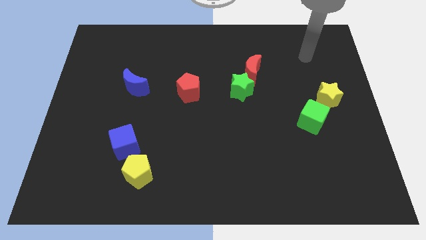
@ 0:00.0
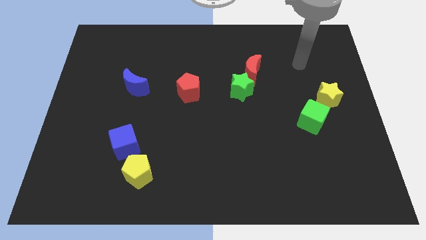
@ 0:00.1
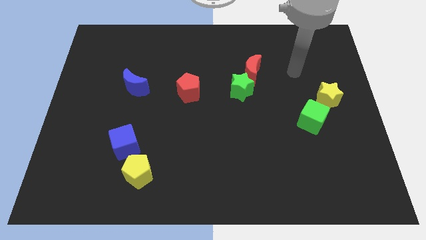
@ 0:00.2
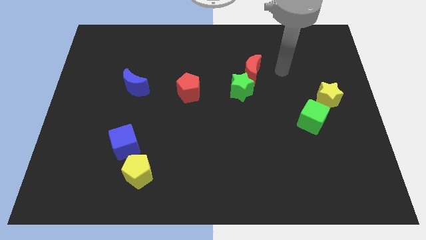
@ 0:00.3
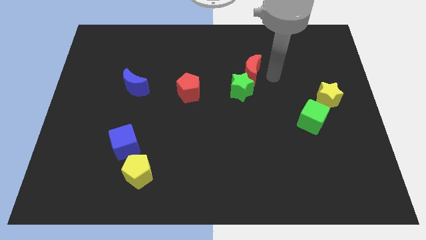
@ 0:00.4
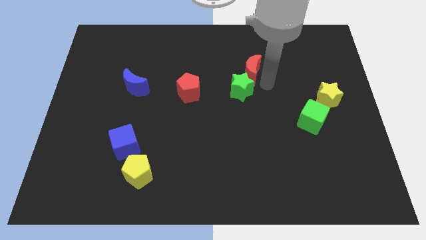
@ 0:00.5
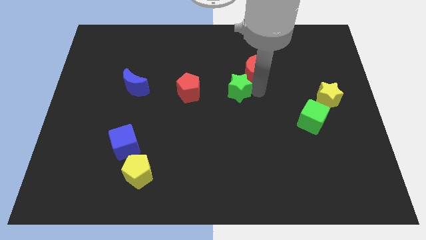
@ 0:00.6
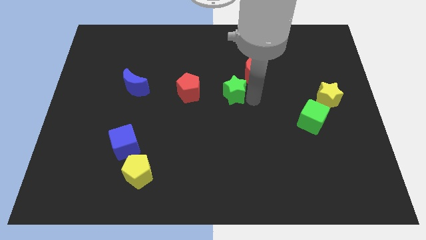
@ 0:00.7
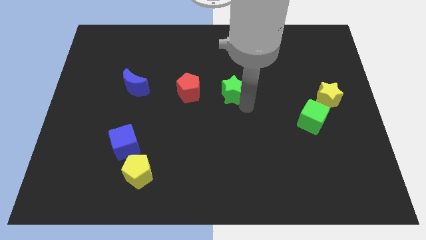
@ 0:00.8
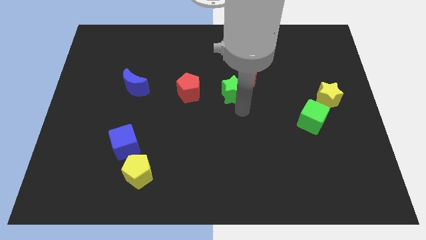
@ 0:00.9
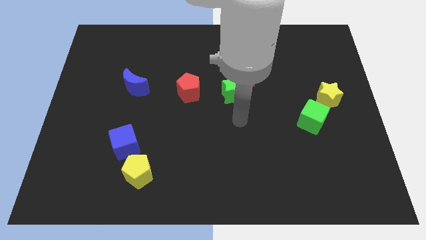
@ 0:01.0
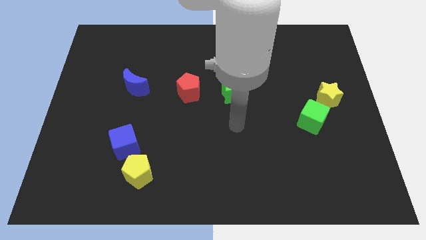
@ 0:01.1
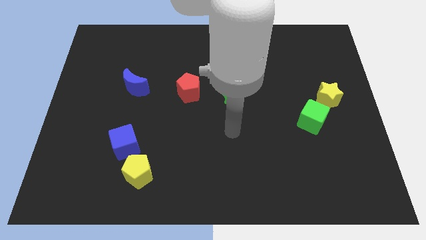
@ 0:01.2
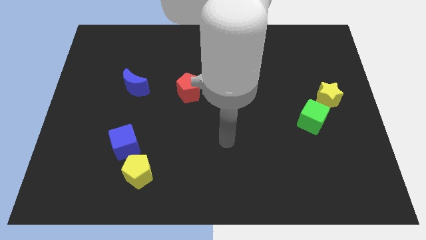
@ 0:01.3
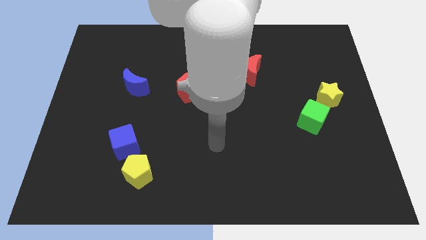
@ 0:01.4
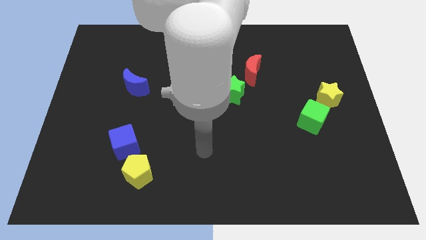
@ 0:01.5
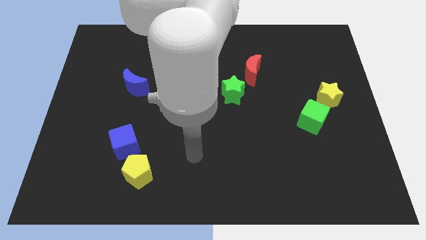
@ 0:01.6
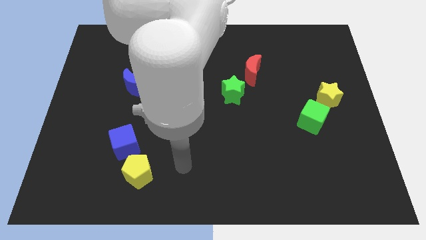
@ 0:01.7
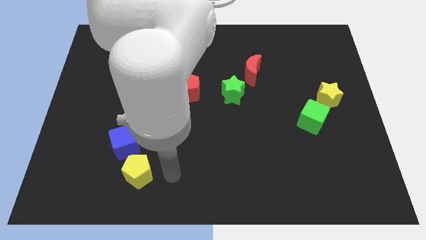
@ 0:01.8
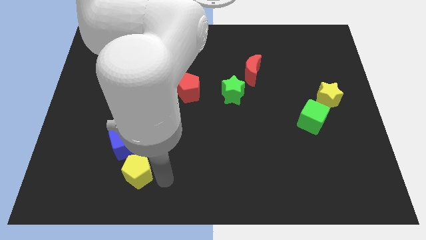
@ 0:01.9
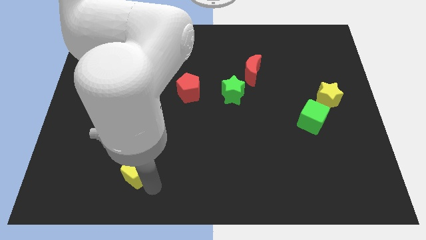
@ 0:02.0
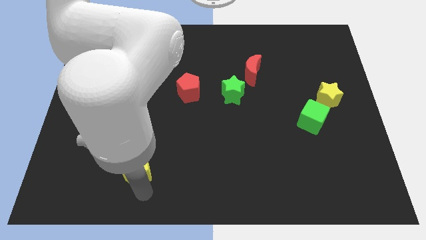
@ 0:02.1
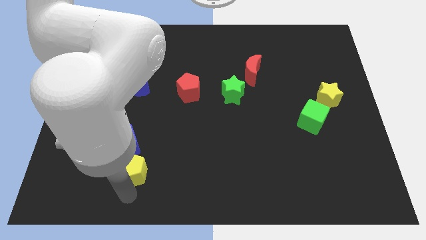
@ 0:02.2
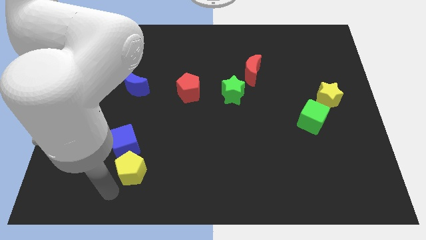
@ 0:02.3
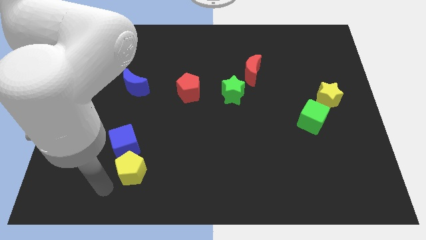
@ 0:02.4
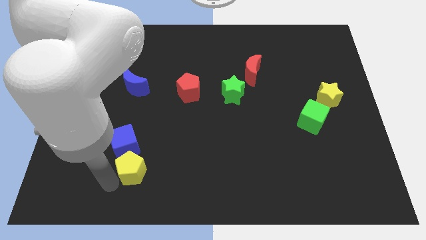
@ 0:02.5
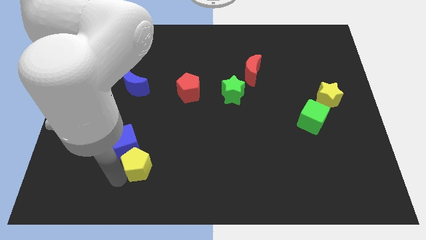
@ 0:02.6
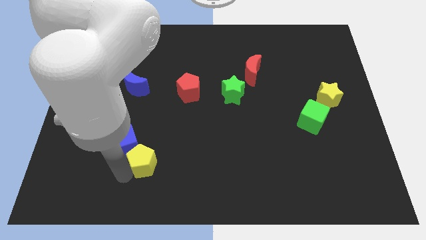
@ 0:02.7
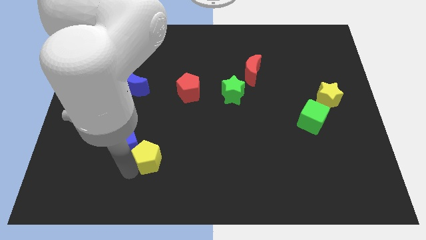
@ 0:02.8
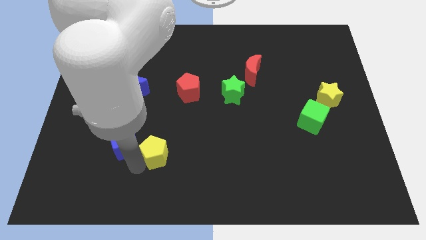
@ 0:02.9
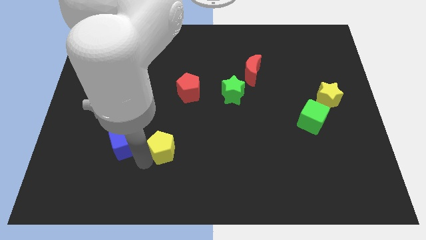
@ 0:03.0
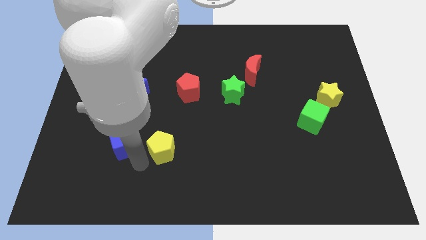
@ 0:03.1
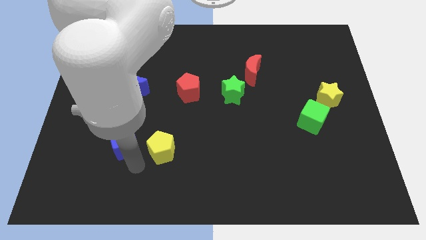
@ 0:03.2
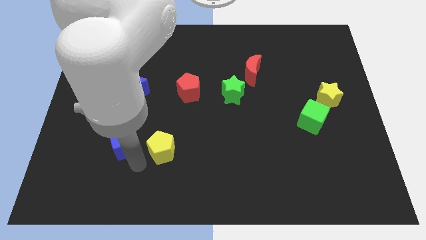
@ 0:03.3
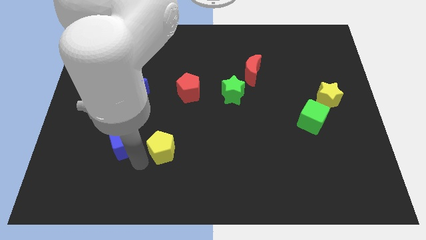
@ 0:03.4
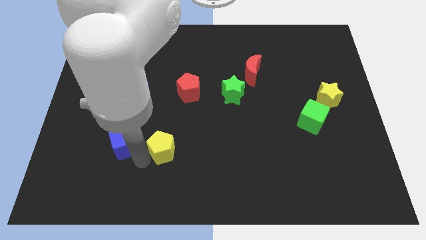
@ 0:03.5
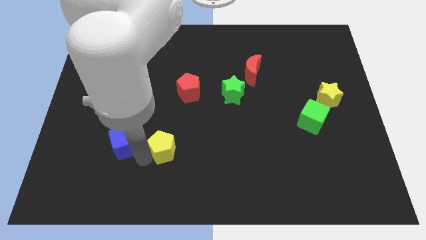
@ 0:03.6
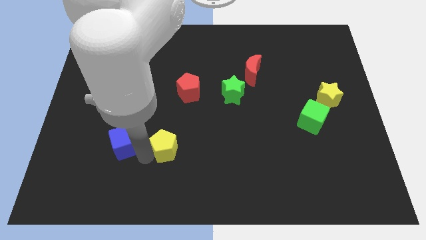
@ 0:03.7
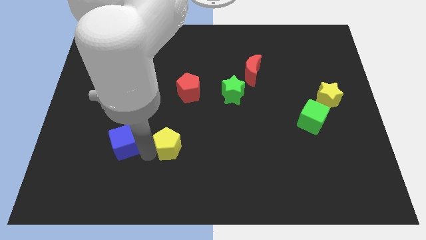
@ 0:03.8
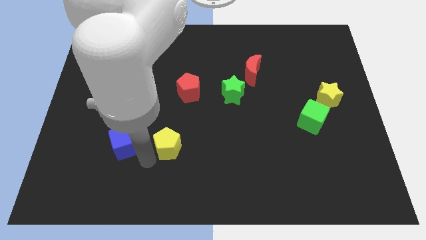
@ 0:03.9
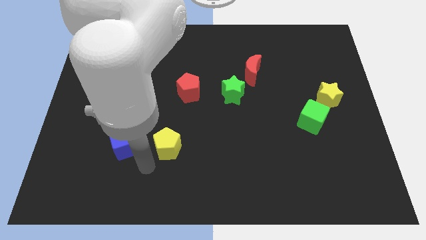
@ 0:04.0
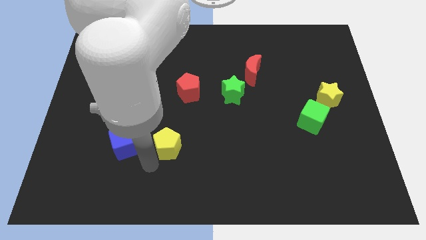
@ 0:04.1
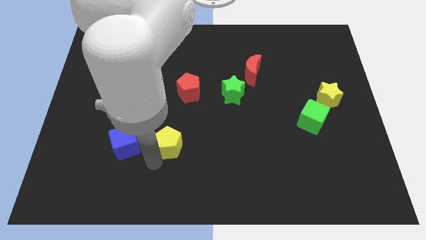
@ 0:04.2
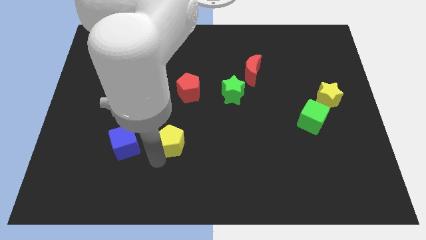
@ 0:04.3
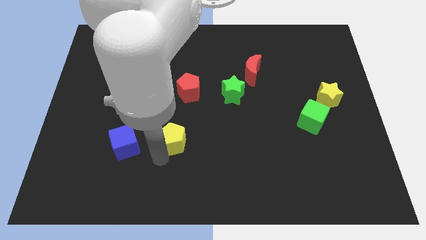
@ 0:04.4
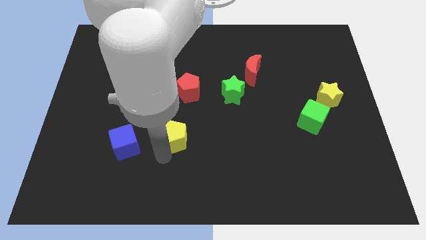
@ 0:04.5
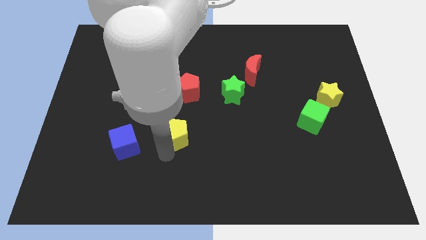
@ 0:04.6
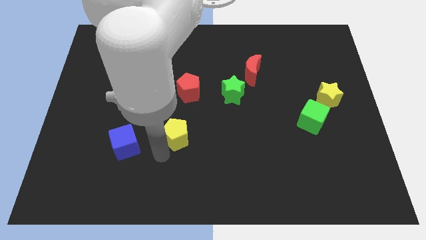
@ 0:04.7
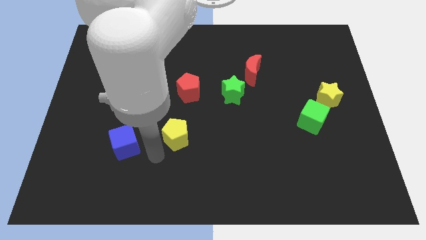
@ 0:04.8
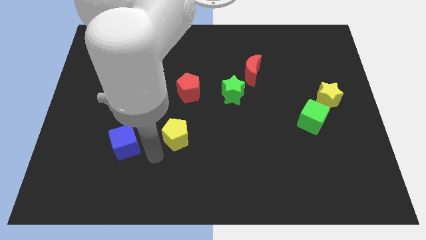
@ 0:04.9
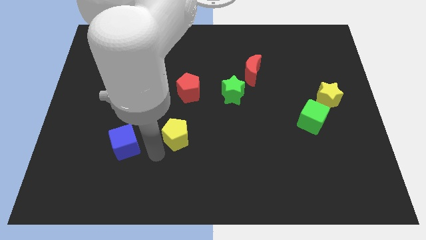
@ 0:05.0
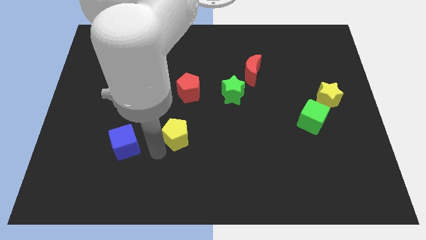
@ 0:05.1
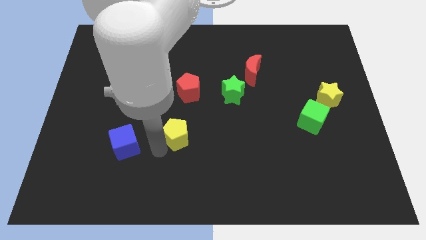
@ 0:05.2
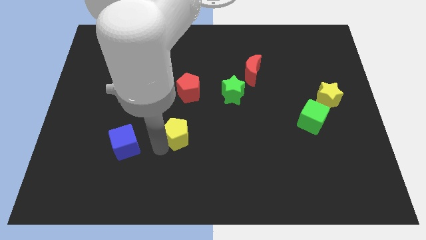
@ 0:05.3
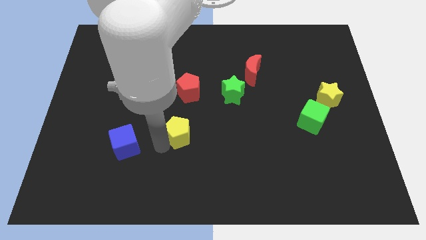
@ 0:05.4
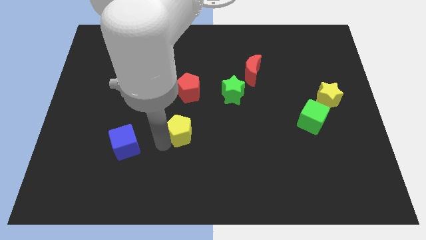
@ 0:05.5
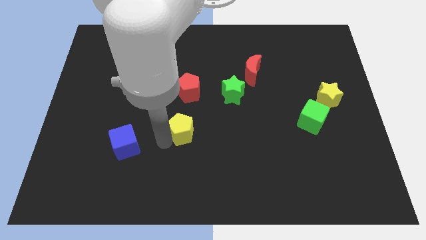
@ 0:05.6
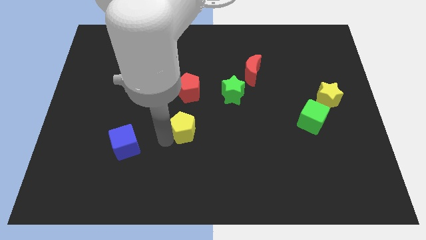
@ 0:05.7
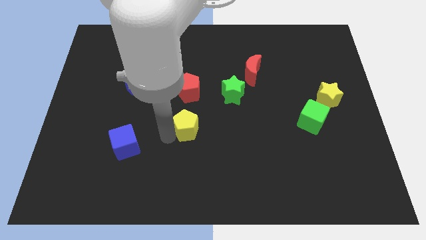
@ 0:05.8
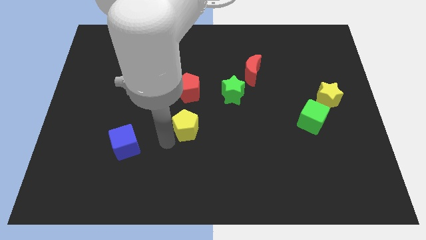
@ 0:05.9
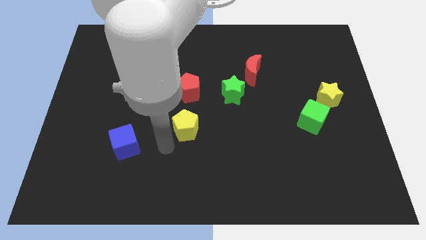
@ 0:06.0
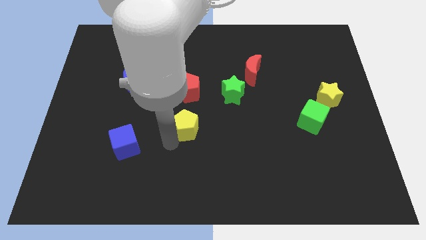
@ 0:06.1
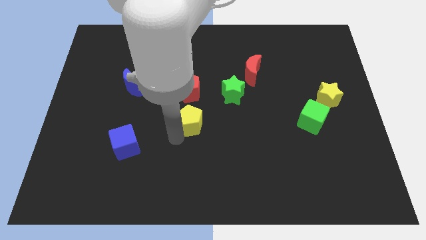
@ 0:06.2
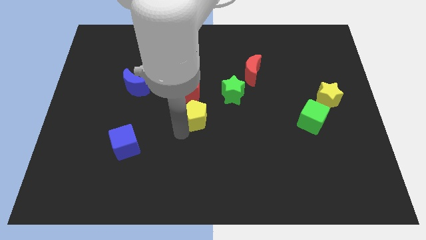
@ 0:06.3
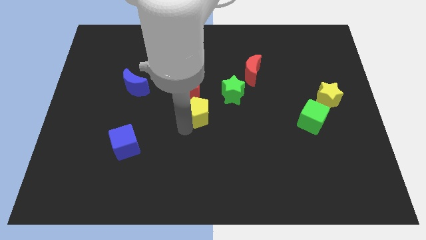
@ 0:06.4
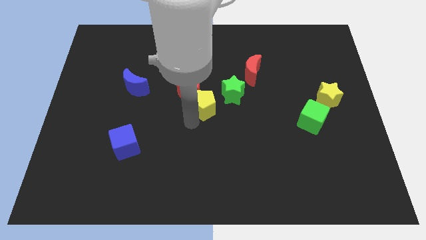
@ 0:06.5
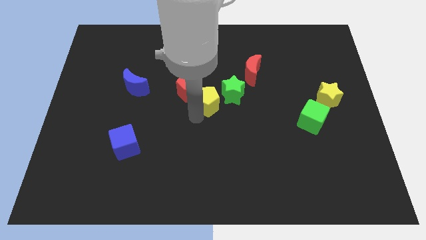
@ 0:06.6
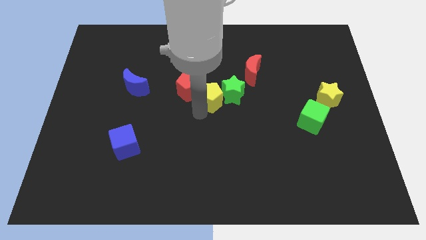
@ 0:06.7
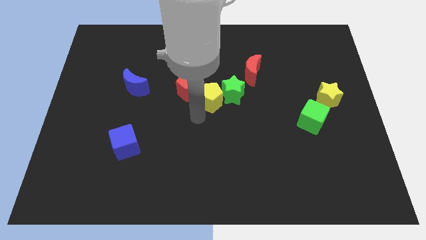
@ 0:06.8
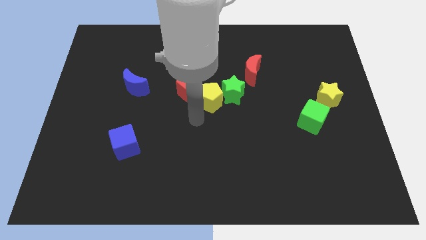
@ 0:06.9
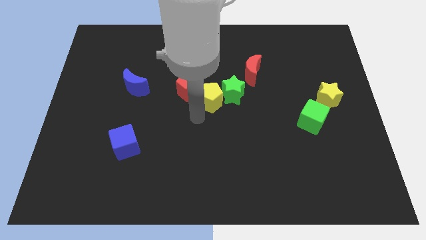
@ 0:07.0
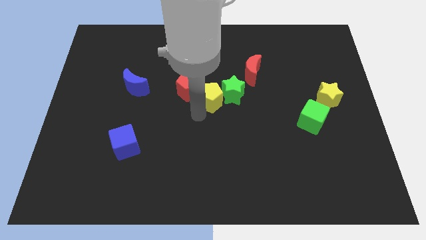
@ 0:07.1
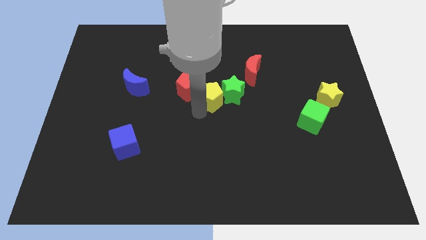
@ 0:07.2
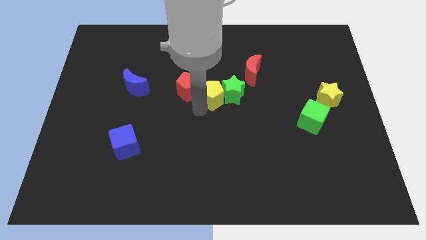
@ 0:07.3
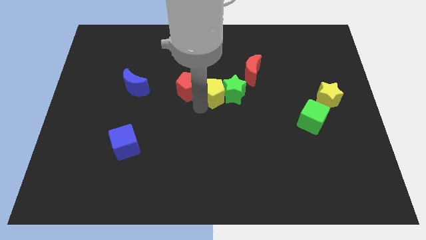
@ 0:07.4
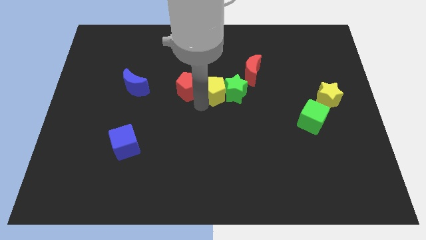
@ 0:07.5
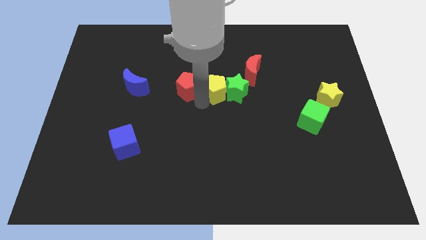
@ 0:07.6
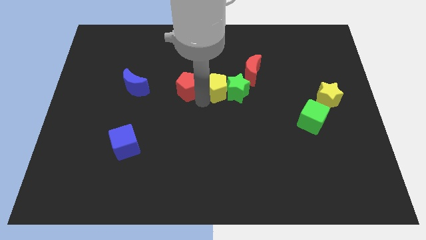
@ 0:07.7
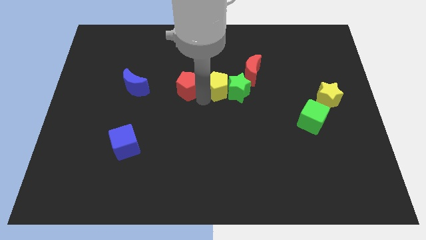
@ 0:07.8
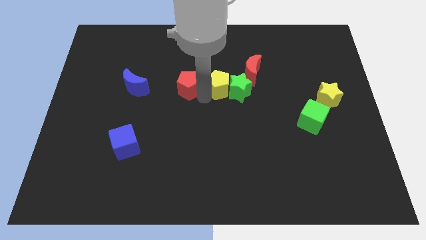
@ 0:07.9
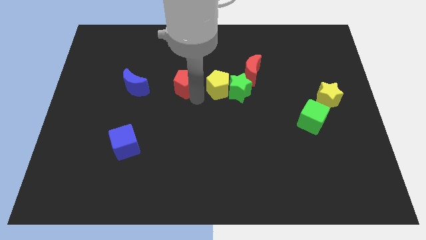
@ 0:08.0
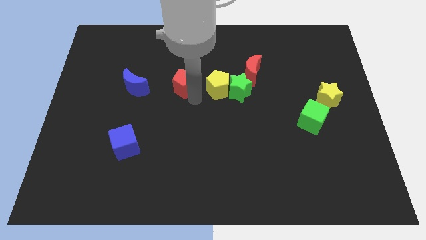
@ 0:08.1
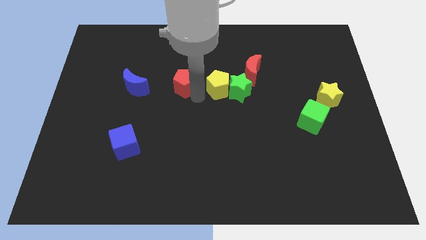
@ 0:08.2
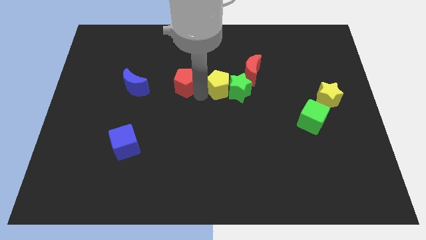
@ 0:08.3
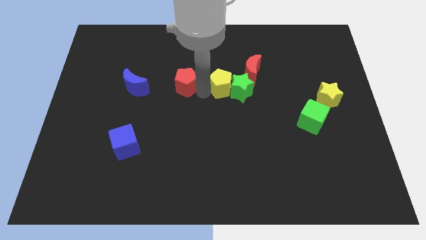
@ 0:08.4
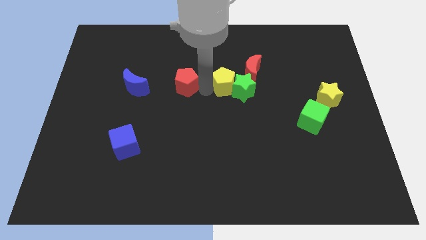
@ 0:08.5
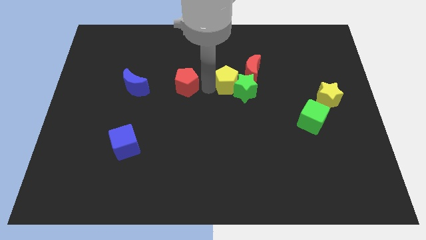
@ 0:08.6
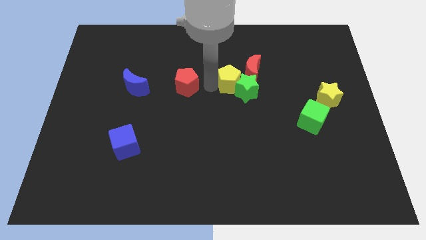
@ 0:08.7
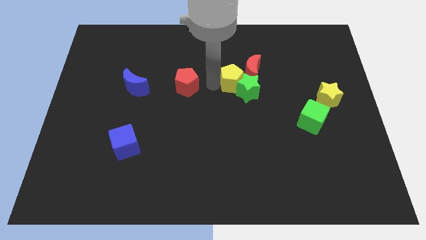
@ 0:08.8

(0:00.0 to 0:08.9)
move the yellow pentagon next to the red moon
